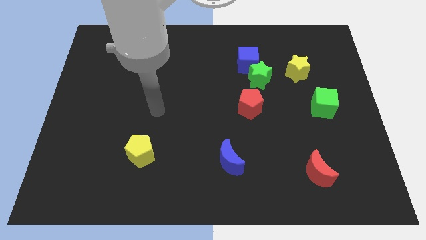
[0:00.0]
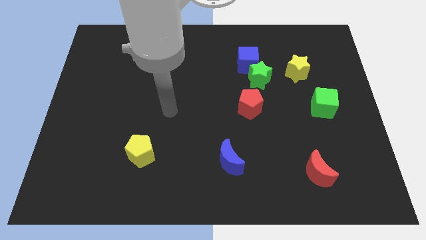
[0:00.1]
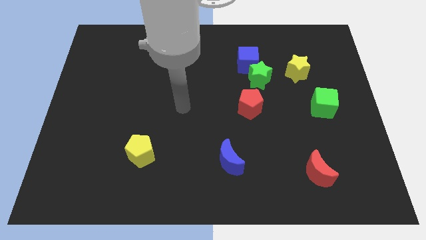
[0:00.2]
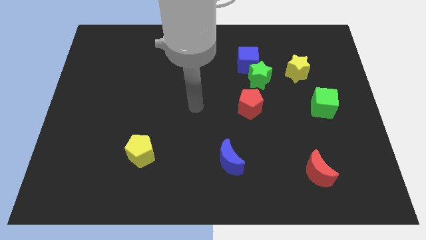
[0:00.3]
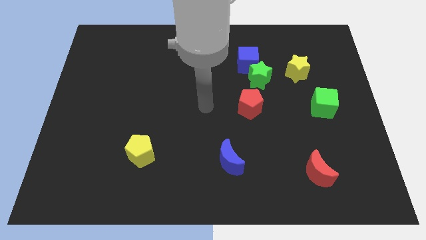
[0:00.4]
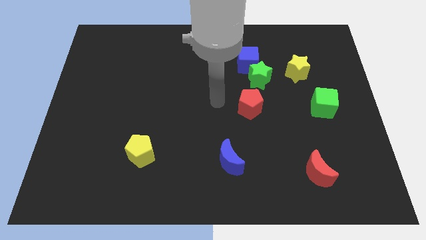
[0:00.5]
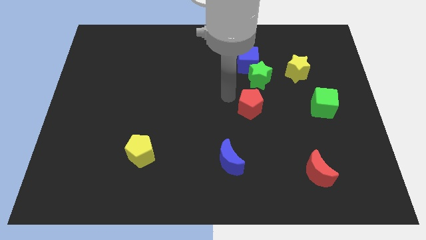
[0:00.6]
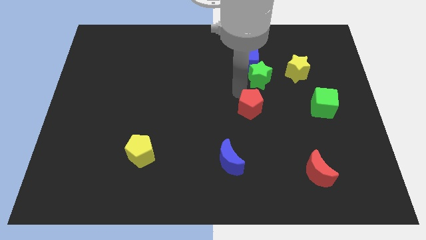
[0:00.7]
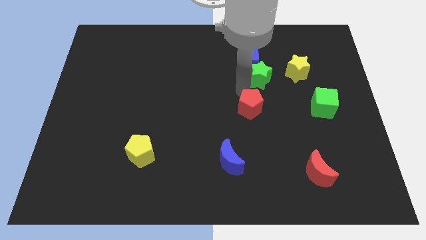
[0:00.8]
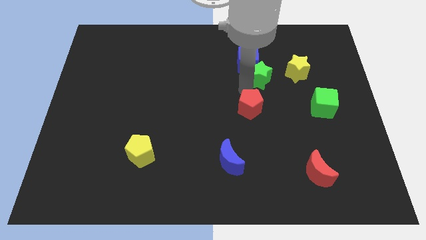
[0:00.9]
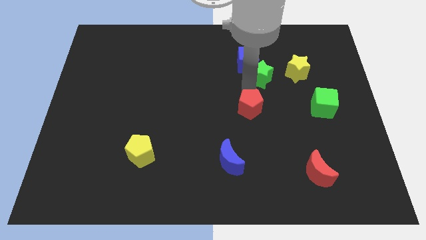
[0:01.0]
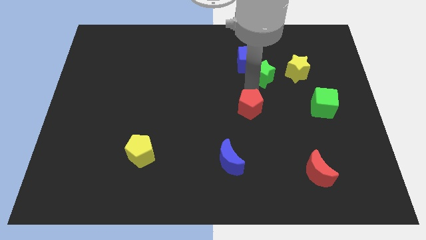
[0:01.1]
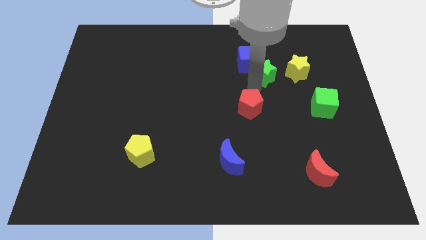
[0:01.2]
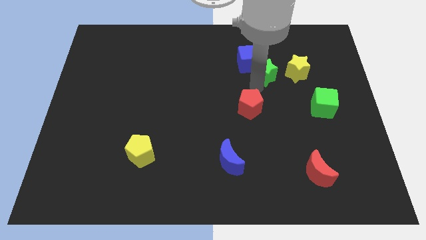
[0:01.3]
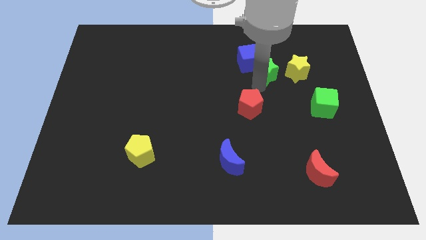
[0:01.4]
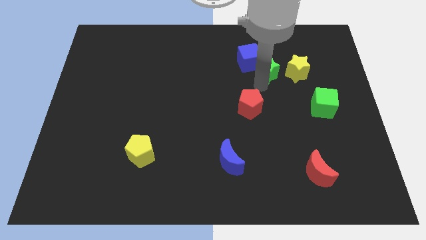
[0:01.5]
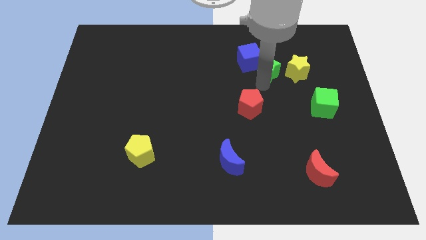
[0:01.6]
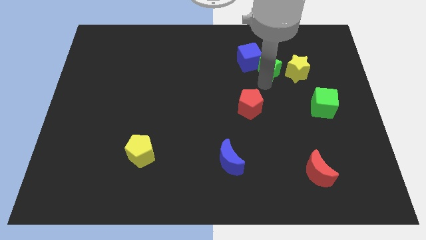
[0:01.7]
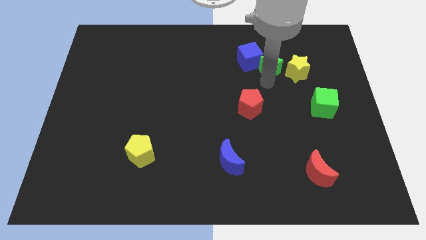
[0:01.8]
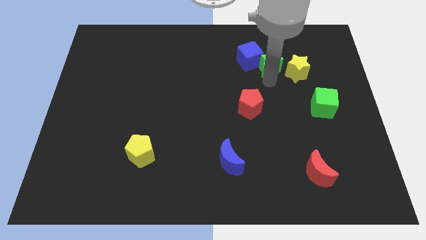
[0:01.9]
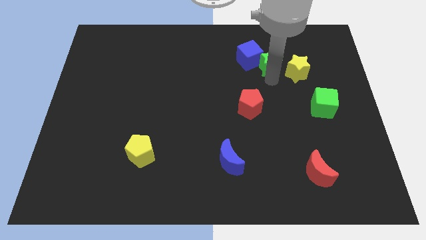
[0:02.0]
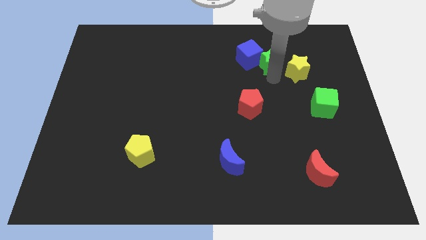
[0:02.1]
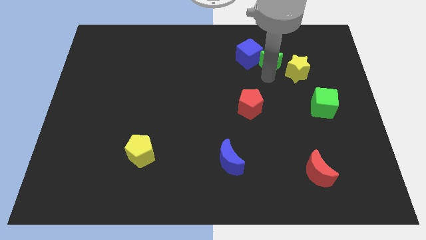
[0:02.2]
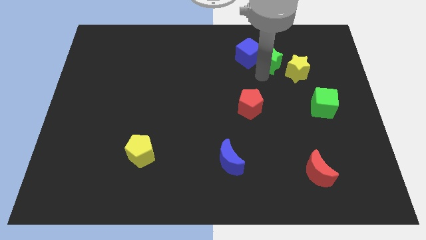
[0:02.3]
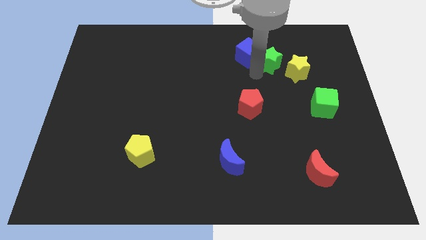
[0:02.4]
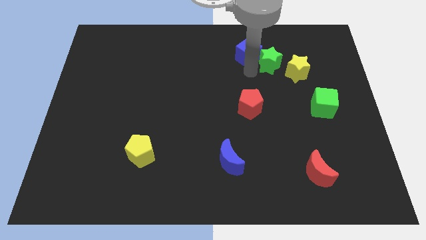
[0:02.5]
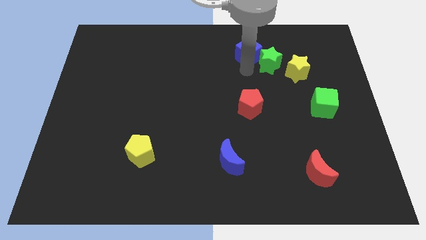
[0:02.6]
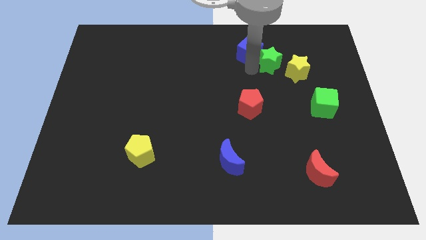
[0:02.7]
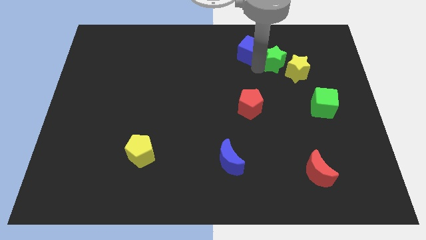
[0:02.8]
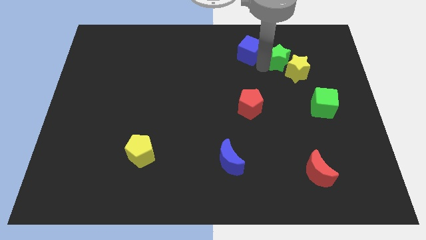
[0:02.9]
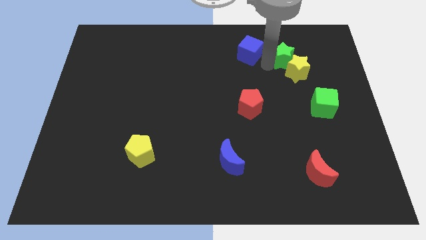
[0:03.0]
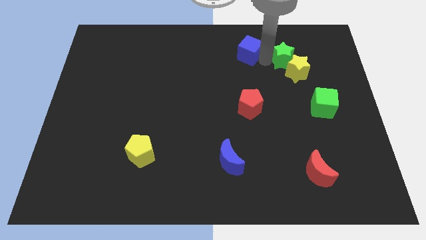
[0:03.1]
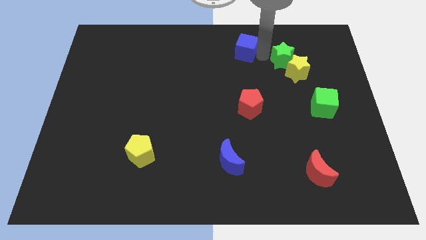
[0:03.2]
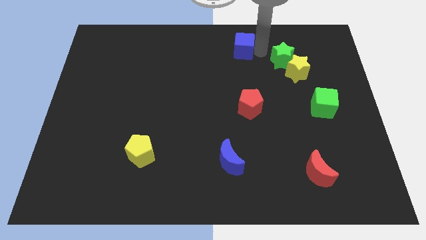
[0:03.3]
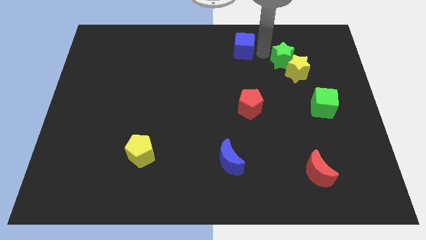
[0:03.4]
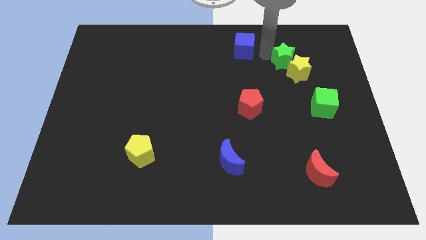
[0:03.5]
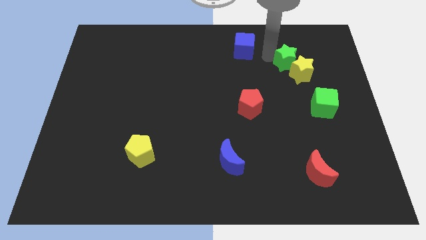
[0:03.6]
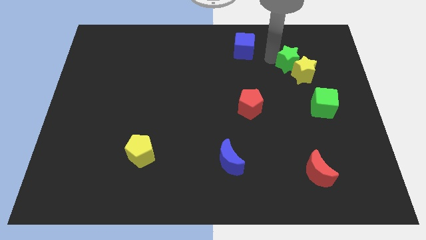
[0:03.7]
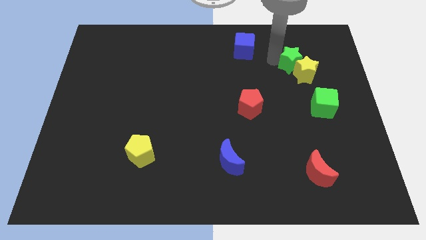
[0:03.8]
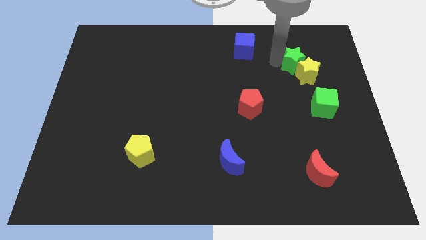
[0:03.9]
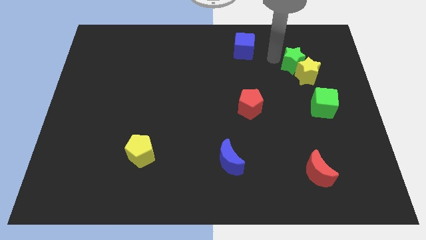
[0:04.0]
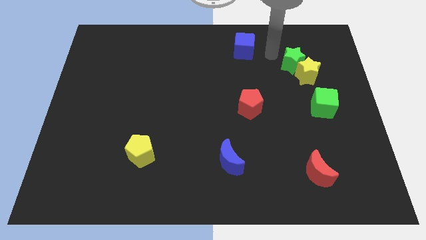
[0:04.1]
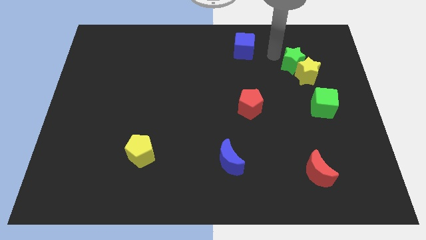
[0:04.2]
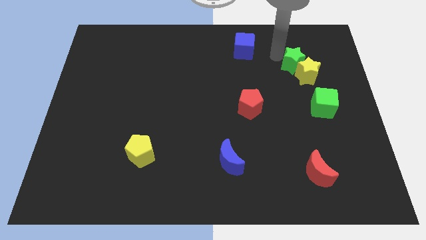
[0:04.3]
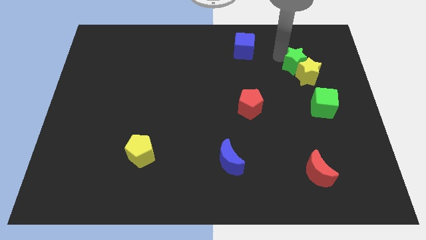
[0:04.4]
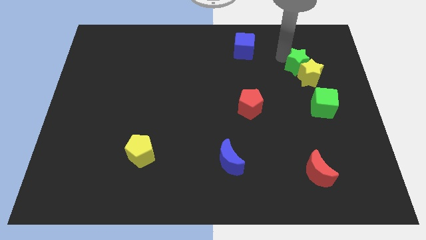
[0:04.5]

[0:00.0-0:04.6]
put the green star to the top of the green cube

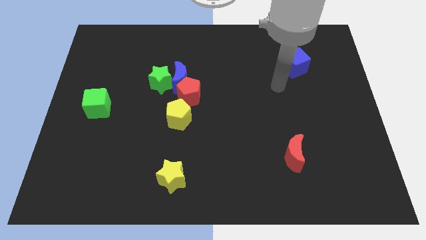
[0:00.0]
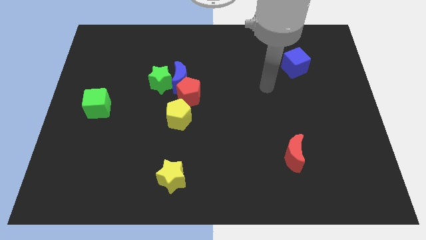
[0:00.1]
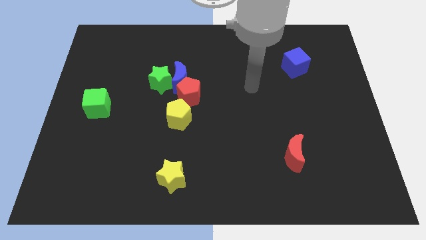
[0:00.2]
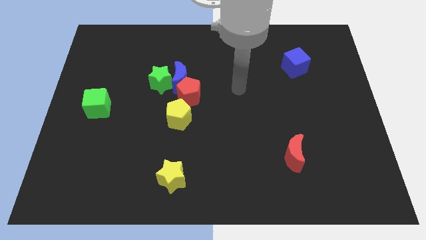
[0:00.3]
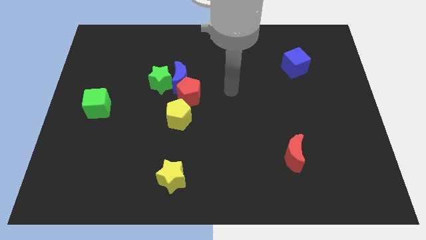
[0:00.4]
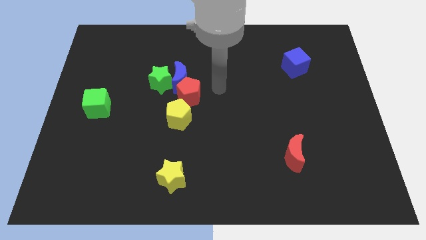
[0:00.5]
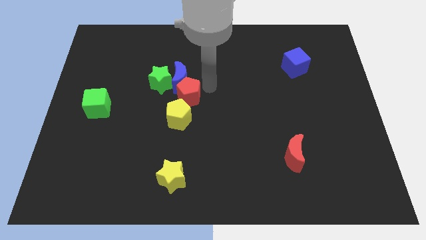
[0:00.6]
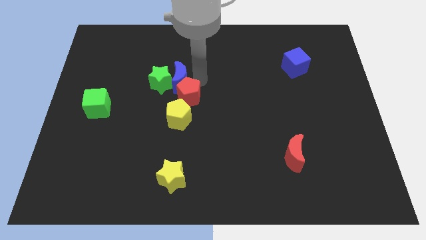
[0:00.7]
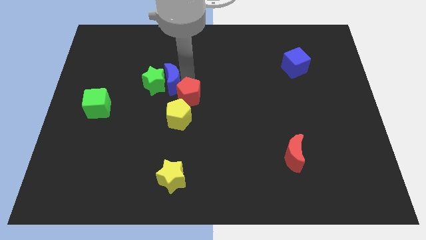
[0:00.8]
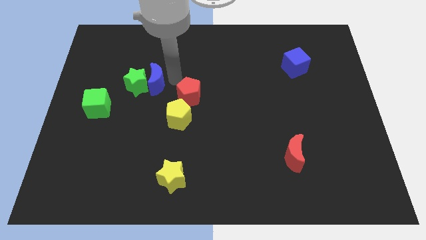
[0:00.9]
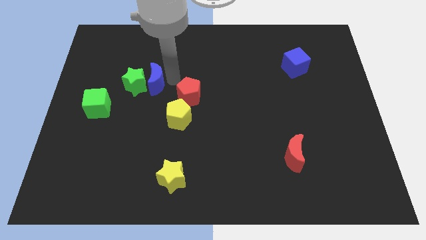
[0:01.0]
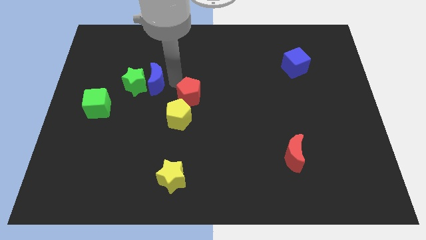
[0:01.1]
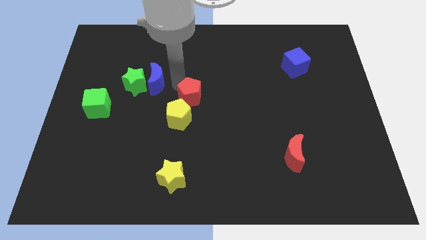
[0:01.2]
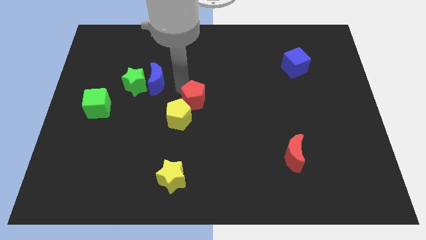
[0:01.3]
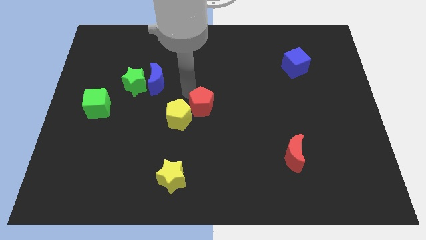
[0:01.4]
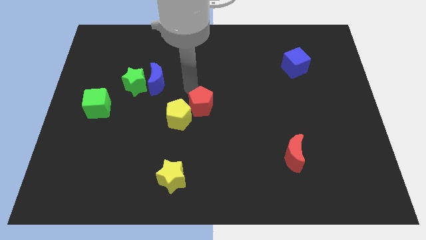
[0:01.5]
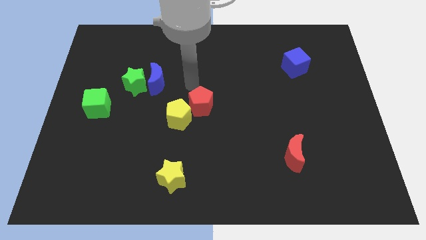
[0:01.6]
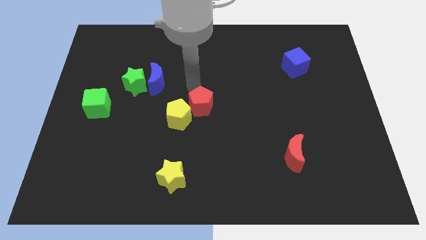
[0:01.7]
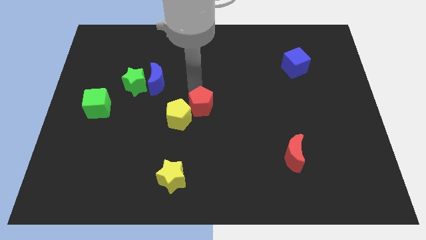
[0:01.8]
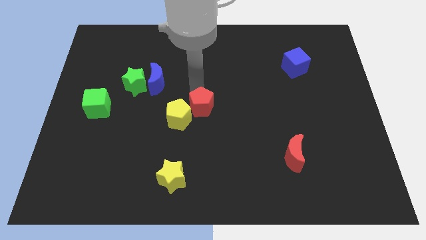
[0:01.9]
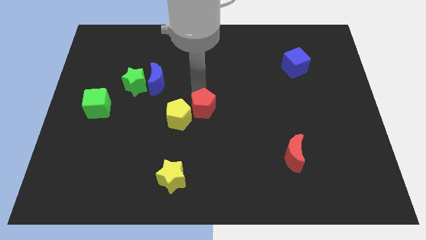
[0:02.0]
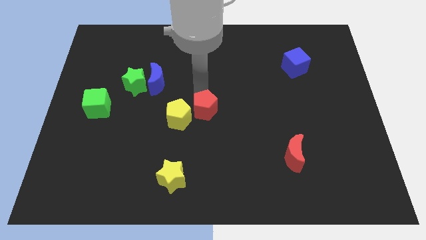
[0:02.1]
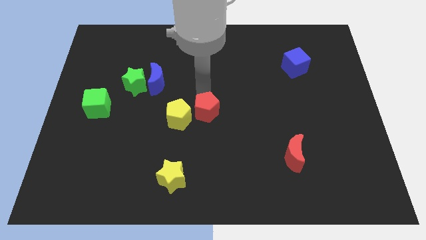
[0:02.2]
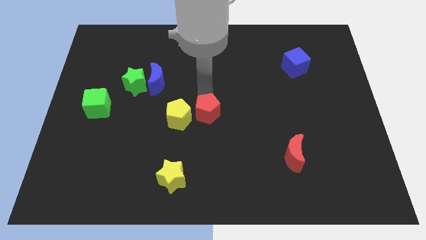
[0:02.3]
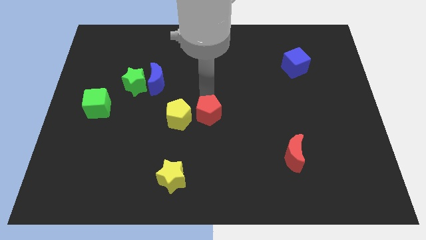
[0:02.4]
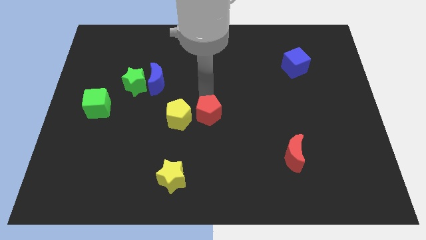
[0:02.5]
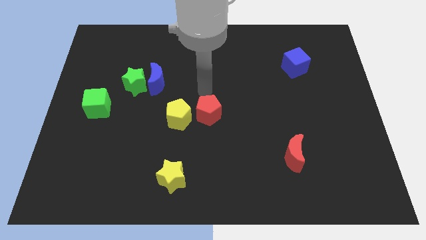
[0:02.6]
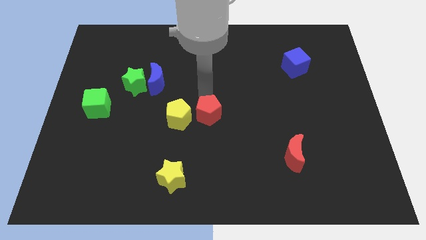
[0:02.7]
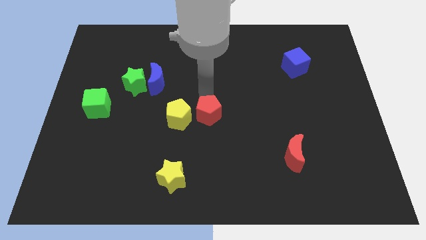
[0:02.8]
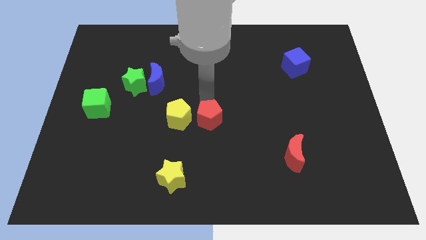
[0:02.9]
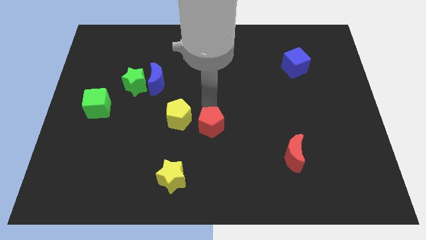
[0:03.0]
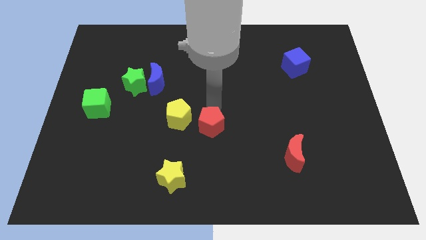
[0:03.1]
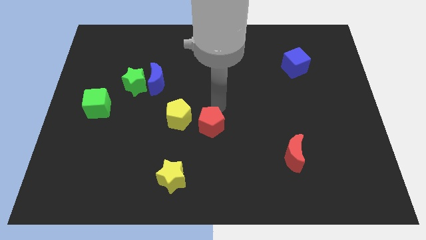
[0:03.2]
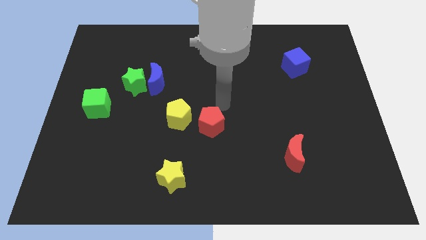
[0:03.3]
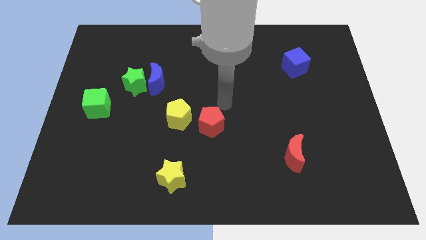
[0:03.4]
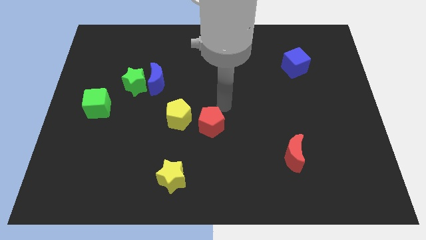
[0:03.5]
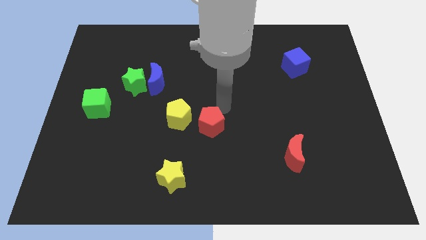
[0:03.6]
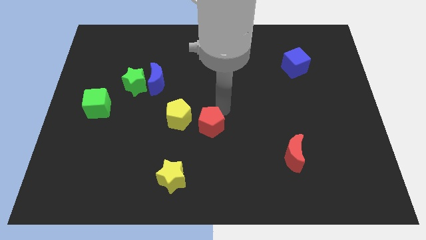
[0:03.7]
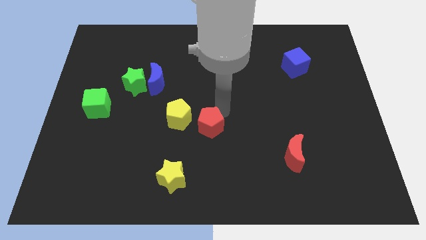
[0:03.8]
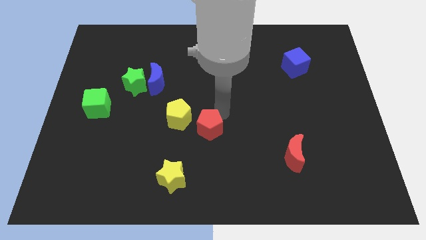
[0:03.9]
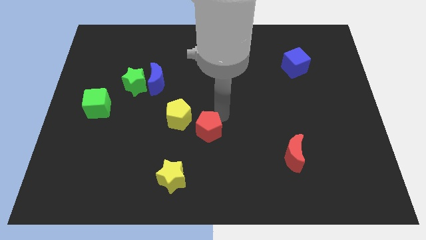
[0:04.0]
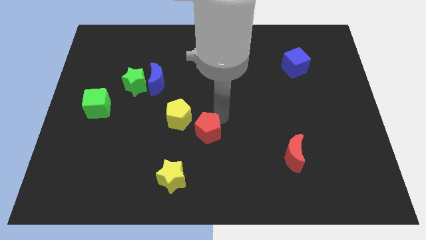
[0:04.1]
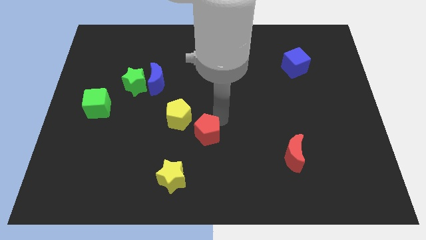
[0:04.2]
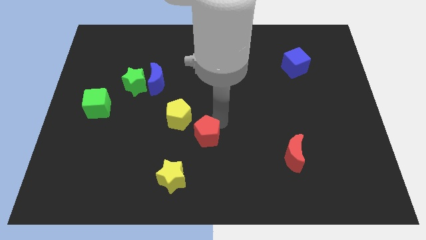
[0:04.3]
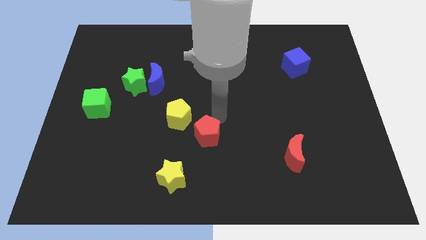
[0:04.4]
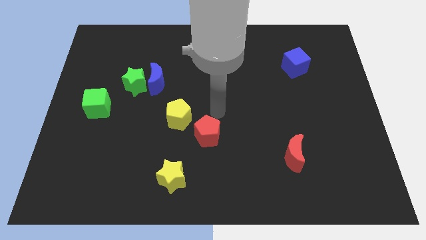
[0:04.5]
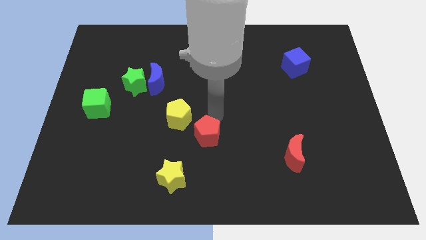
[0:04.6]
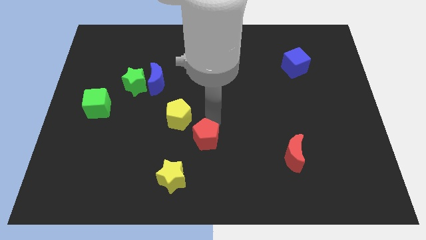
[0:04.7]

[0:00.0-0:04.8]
move the red pentagon to the top right side of the yellow star
